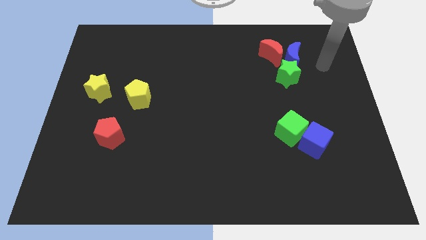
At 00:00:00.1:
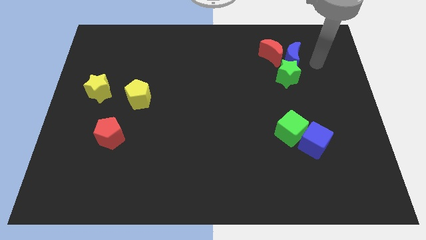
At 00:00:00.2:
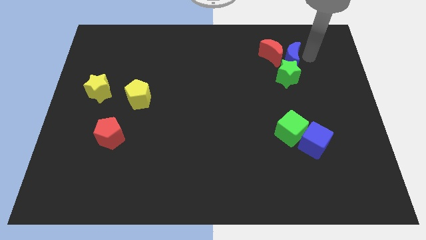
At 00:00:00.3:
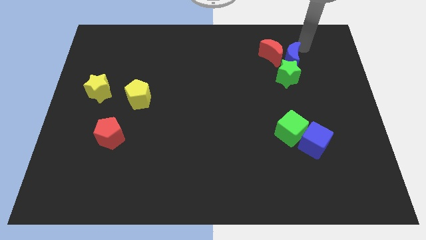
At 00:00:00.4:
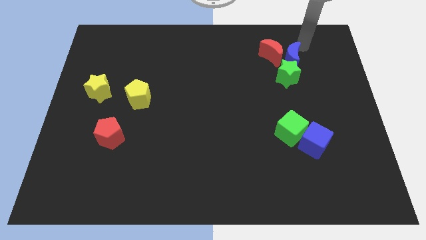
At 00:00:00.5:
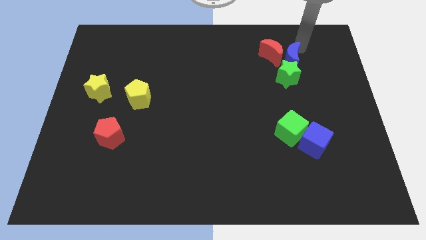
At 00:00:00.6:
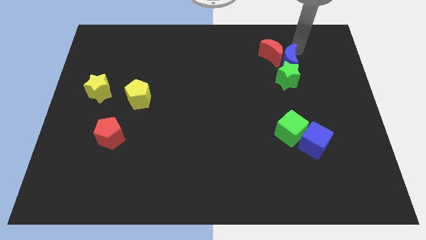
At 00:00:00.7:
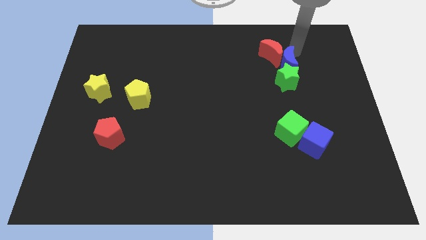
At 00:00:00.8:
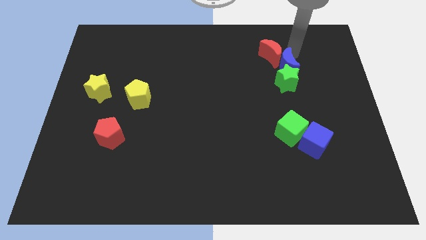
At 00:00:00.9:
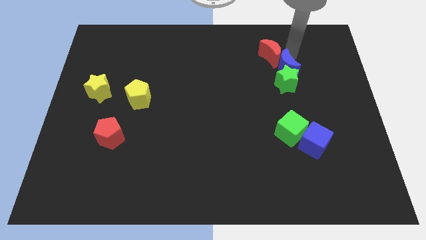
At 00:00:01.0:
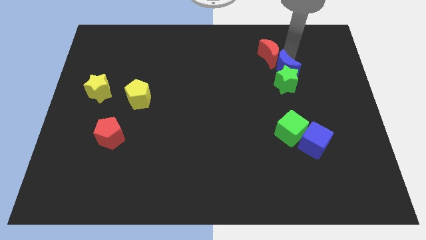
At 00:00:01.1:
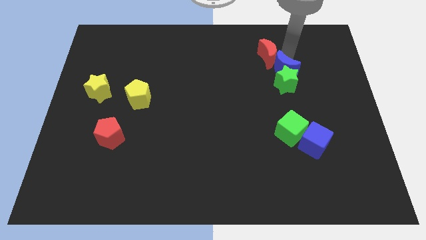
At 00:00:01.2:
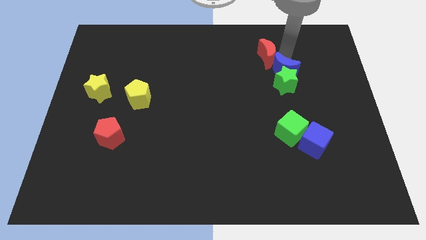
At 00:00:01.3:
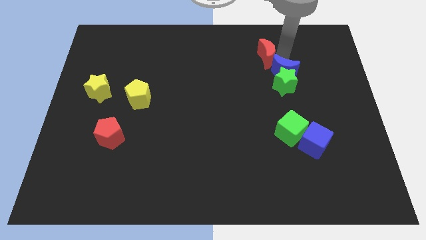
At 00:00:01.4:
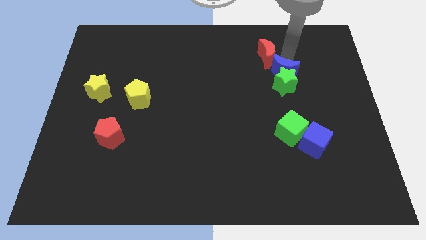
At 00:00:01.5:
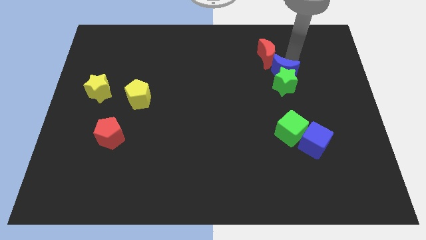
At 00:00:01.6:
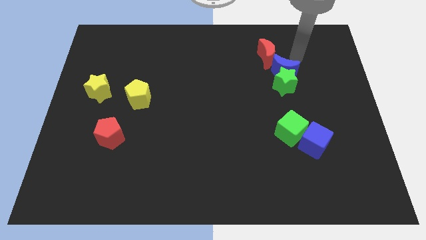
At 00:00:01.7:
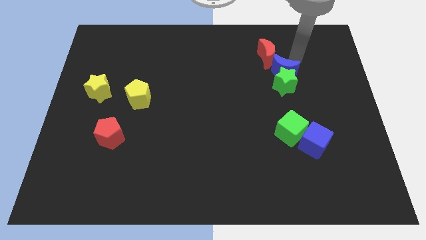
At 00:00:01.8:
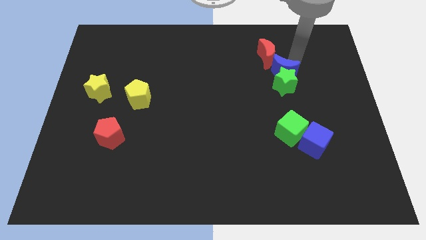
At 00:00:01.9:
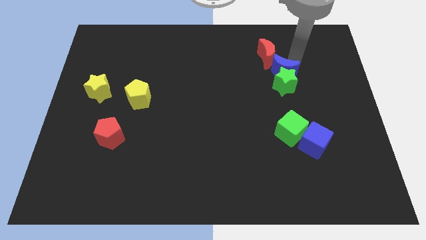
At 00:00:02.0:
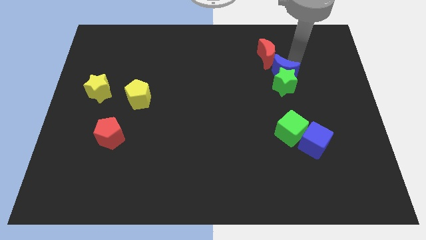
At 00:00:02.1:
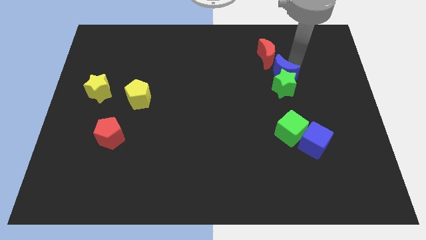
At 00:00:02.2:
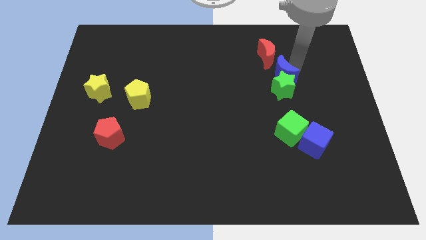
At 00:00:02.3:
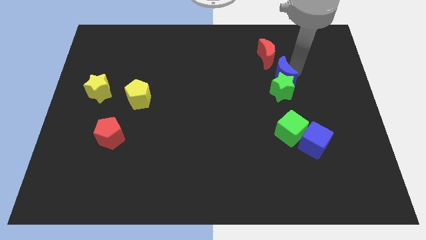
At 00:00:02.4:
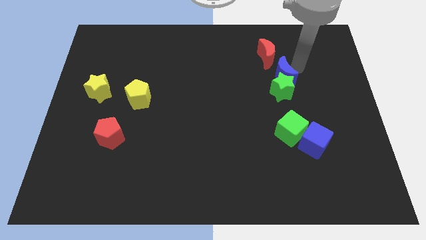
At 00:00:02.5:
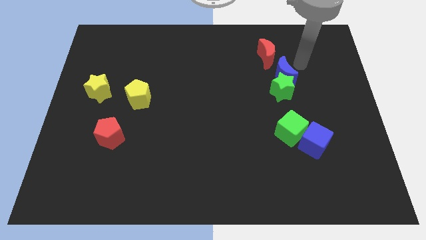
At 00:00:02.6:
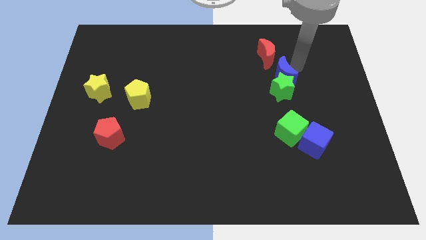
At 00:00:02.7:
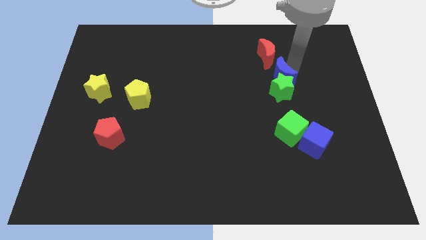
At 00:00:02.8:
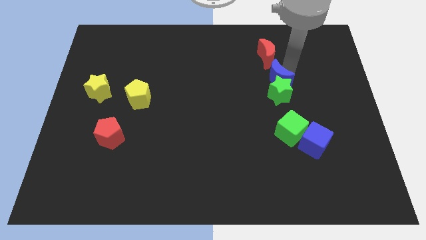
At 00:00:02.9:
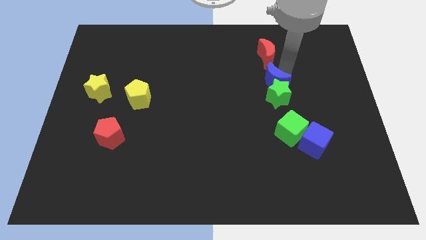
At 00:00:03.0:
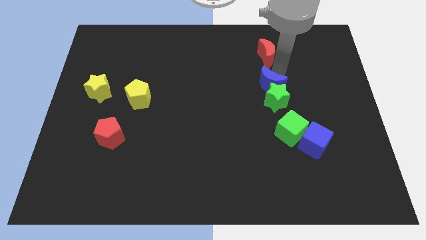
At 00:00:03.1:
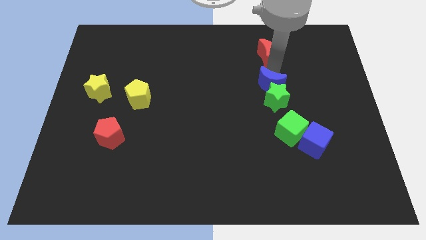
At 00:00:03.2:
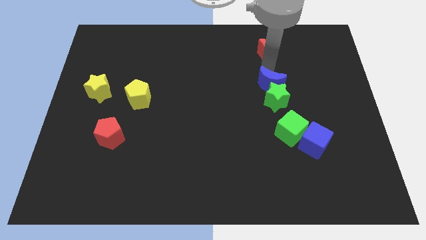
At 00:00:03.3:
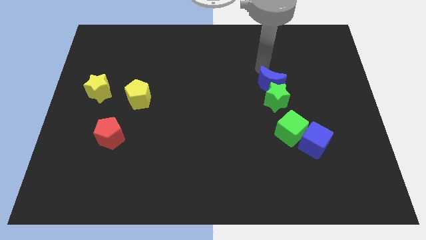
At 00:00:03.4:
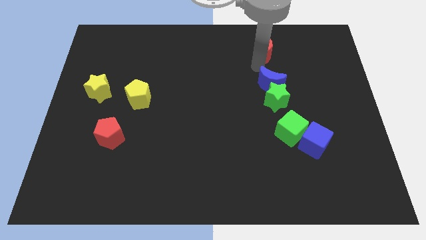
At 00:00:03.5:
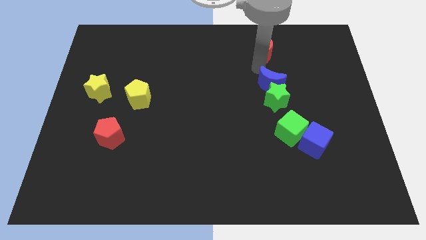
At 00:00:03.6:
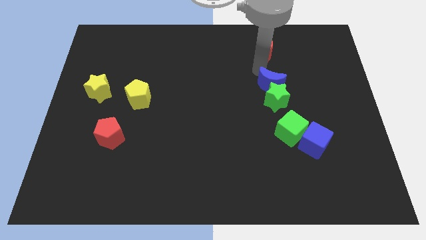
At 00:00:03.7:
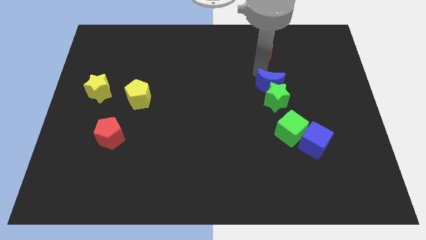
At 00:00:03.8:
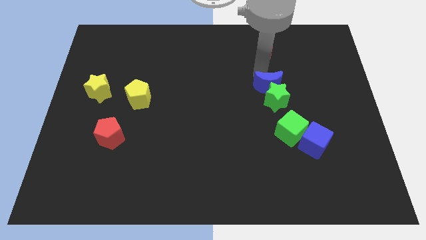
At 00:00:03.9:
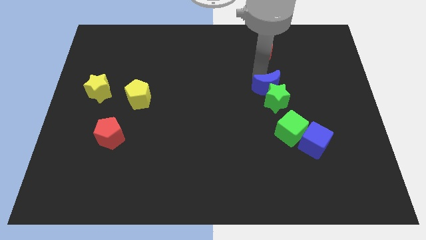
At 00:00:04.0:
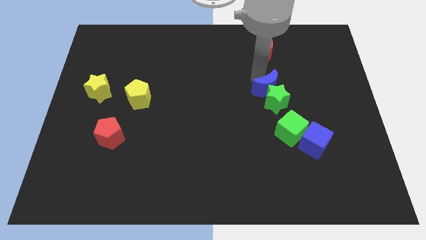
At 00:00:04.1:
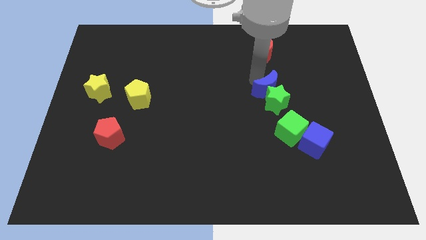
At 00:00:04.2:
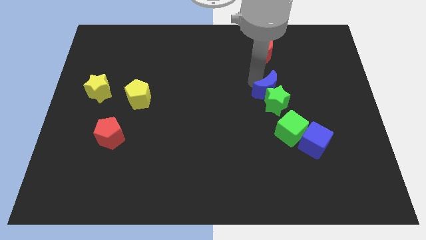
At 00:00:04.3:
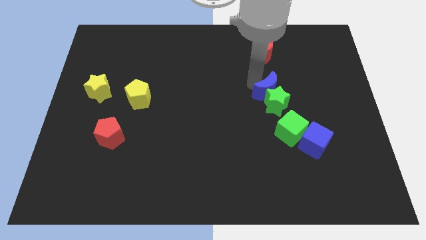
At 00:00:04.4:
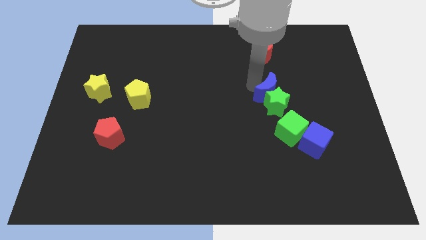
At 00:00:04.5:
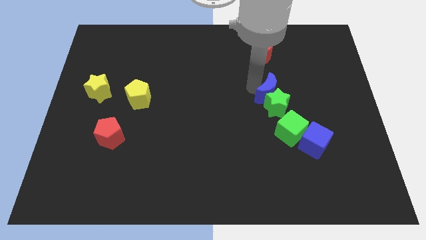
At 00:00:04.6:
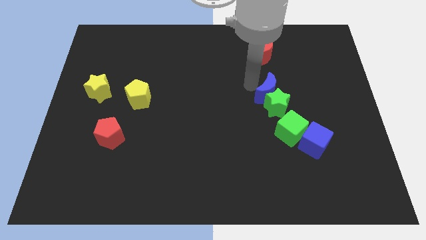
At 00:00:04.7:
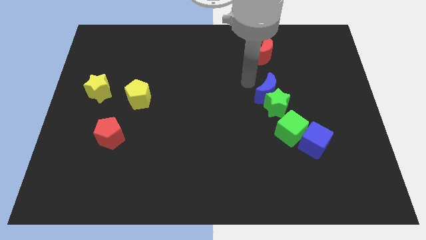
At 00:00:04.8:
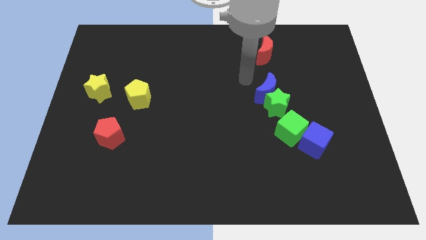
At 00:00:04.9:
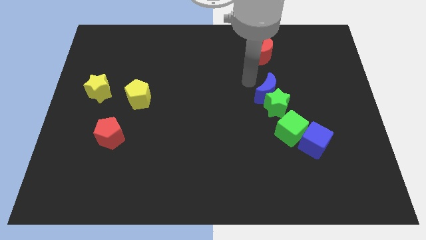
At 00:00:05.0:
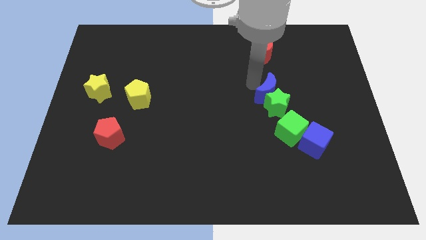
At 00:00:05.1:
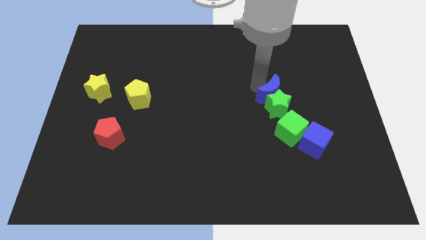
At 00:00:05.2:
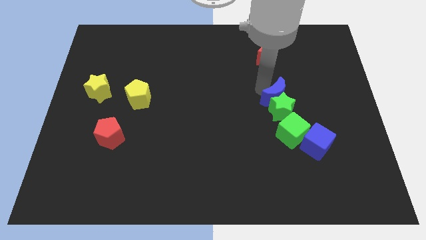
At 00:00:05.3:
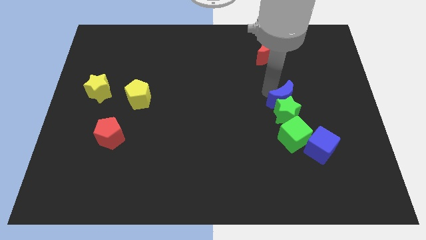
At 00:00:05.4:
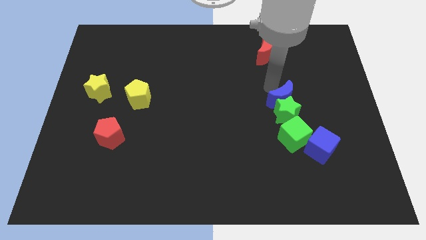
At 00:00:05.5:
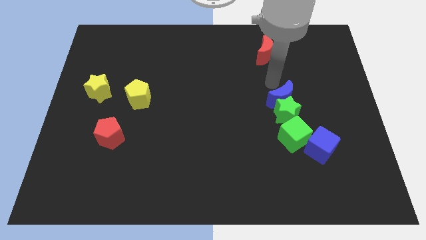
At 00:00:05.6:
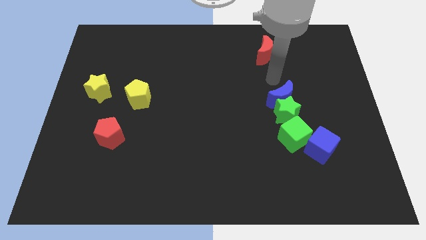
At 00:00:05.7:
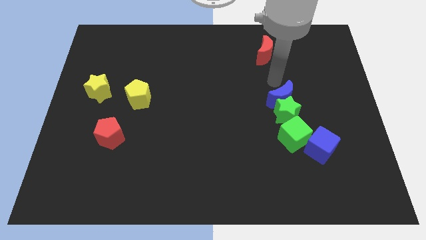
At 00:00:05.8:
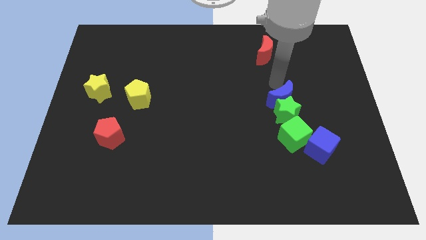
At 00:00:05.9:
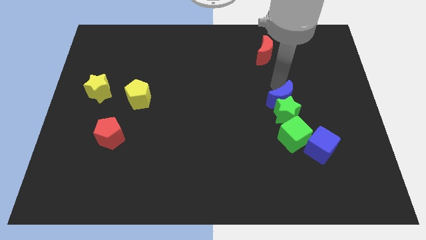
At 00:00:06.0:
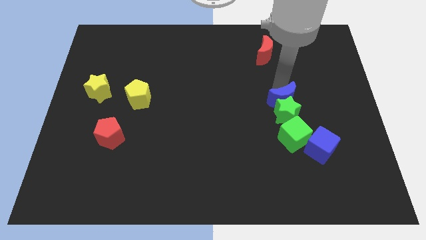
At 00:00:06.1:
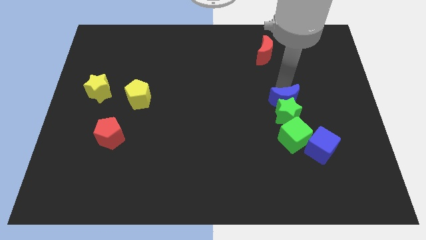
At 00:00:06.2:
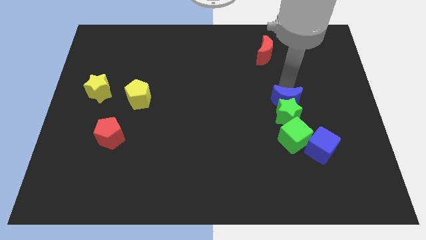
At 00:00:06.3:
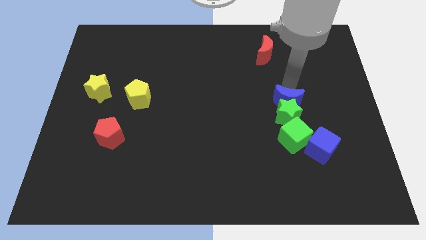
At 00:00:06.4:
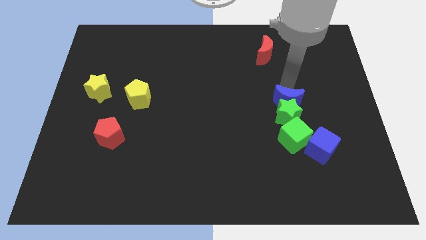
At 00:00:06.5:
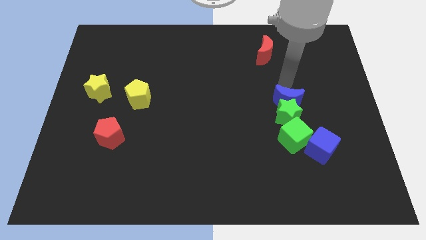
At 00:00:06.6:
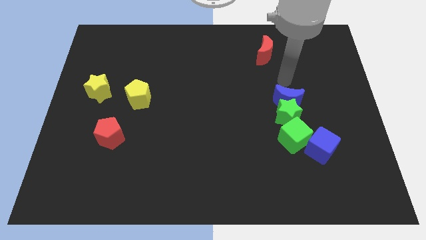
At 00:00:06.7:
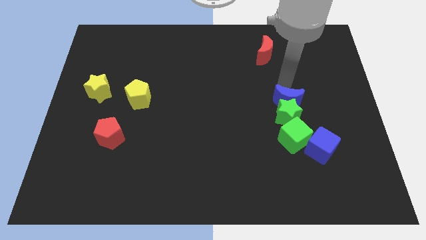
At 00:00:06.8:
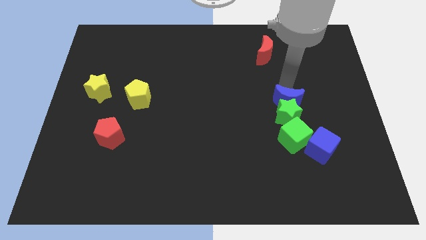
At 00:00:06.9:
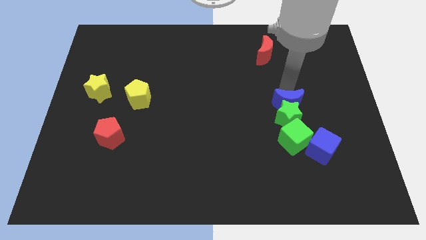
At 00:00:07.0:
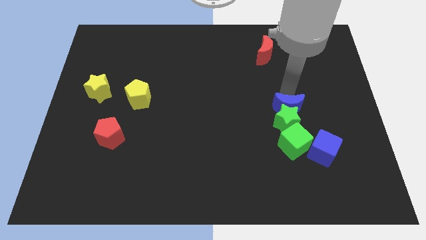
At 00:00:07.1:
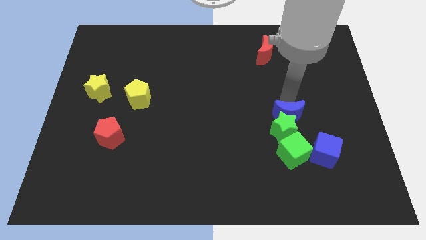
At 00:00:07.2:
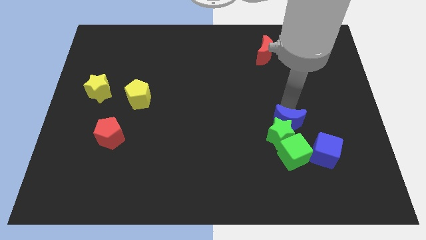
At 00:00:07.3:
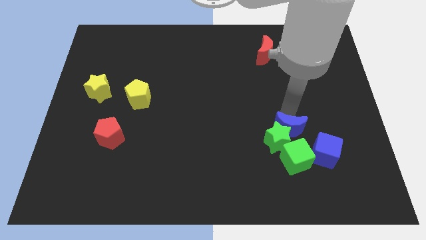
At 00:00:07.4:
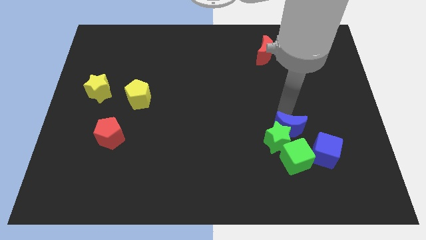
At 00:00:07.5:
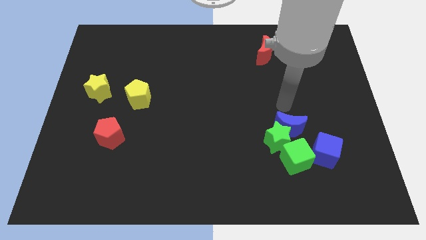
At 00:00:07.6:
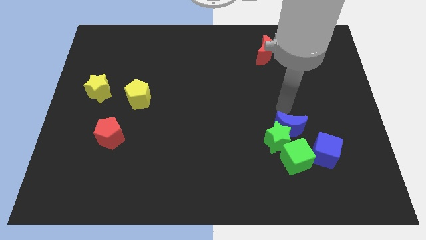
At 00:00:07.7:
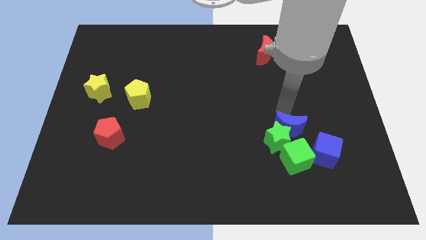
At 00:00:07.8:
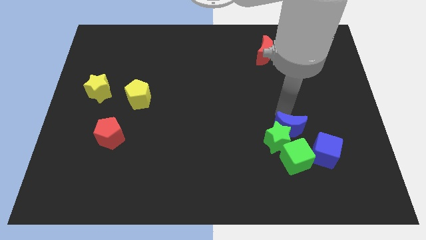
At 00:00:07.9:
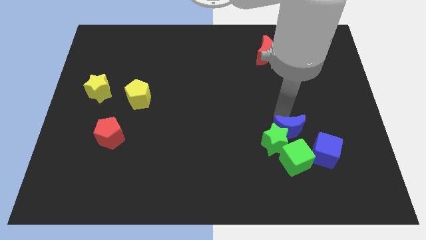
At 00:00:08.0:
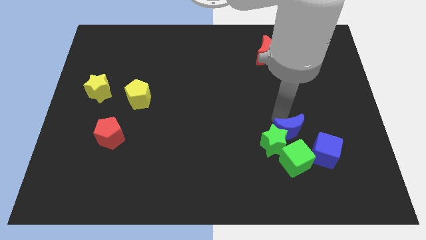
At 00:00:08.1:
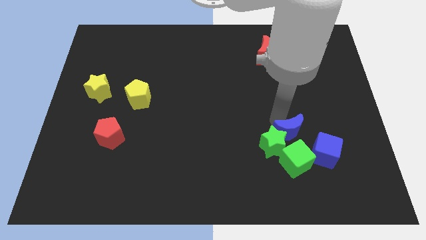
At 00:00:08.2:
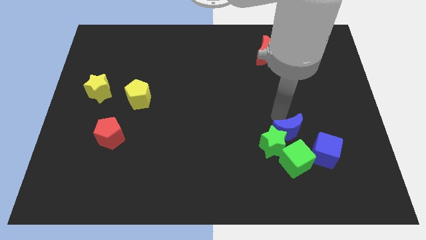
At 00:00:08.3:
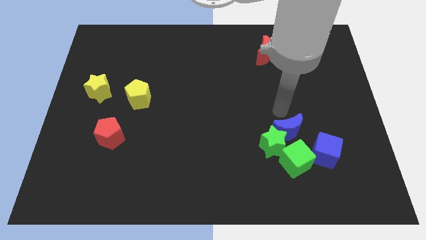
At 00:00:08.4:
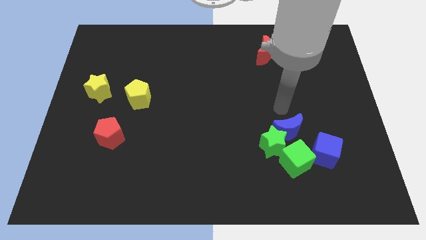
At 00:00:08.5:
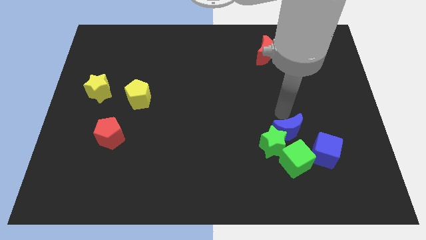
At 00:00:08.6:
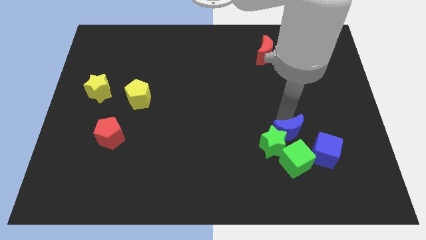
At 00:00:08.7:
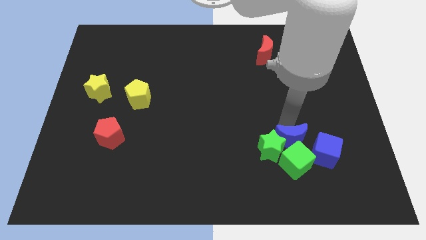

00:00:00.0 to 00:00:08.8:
push the blue moon next to the green cube
